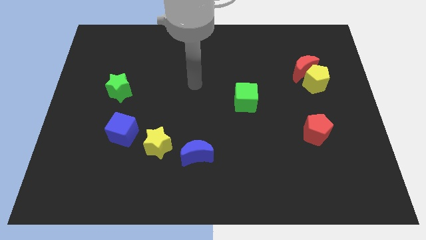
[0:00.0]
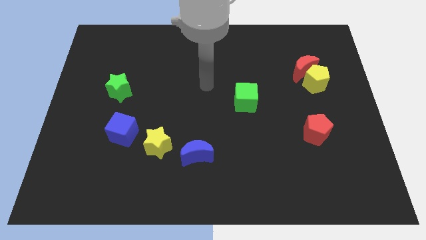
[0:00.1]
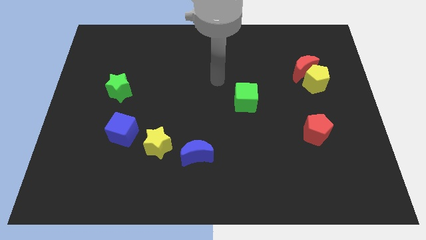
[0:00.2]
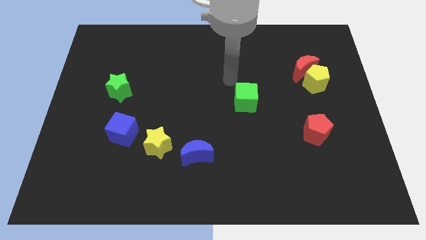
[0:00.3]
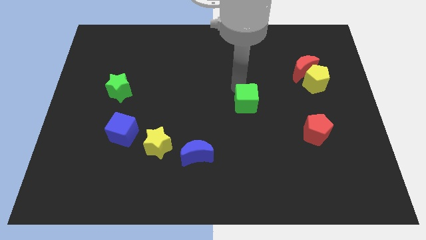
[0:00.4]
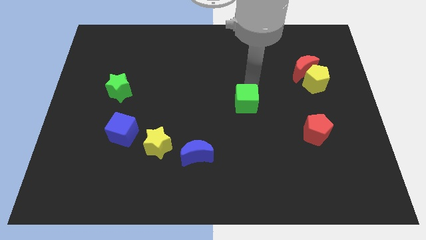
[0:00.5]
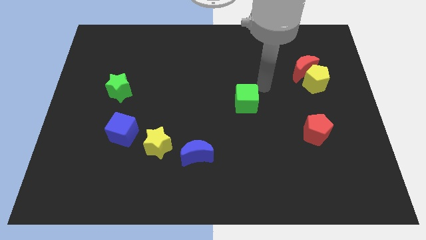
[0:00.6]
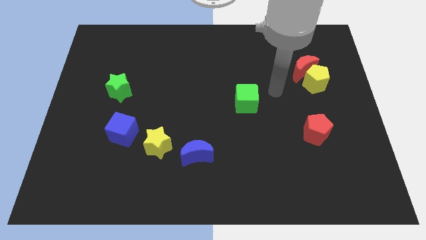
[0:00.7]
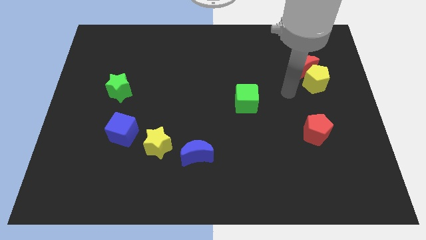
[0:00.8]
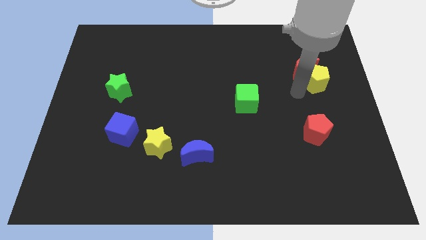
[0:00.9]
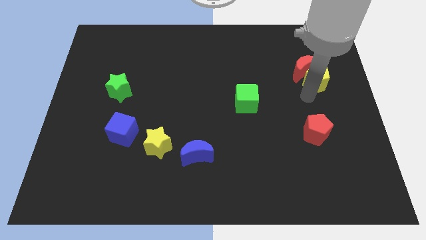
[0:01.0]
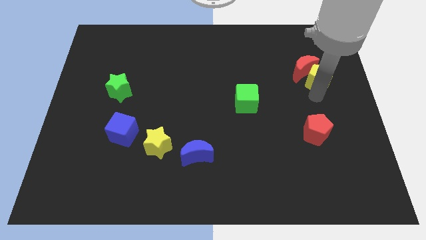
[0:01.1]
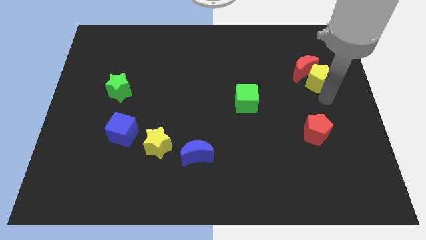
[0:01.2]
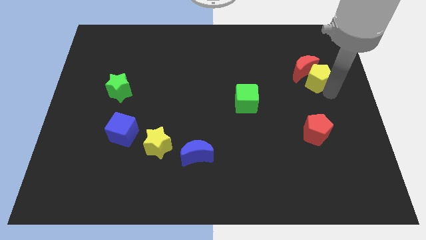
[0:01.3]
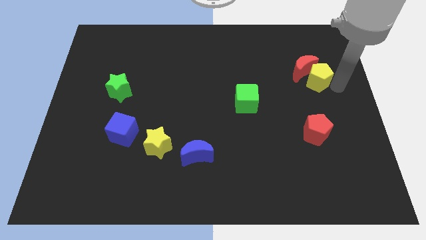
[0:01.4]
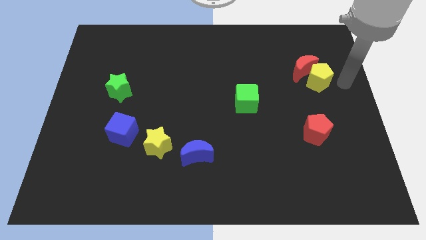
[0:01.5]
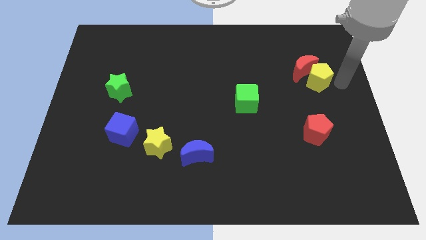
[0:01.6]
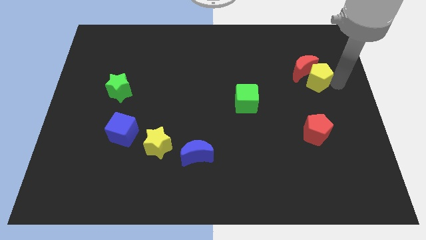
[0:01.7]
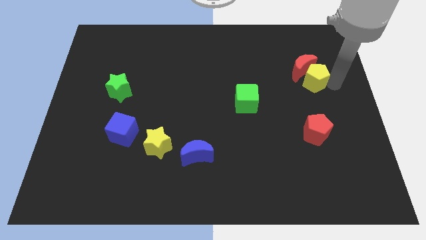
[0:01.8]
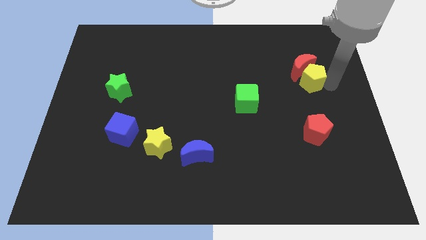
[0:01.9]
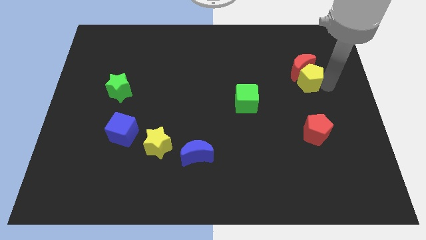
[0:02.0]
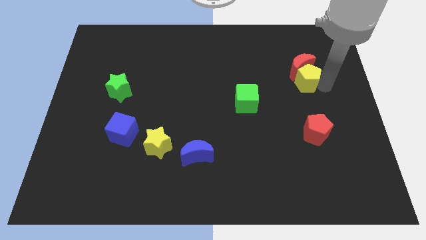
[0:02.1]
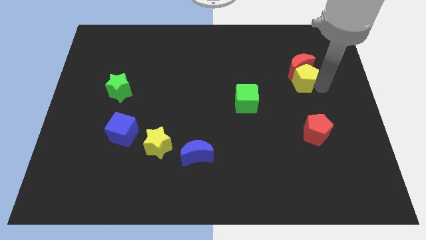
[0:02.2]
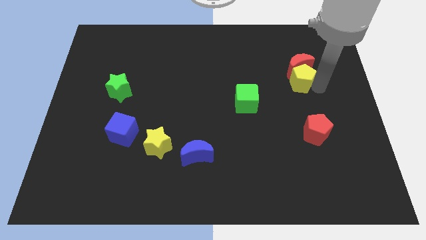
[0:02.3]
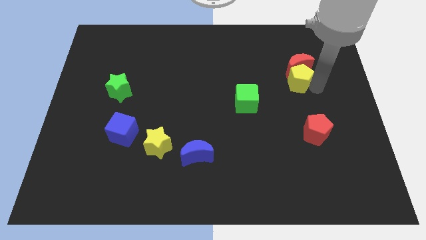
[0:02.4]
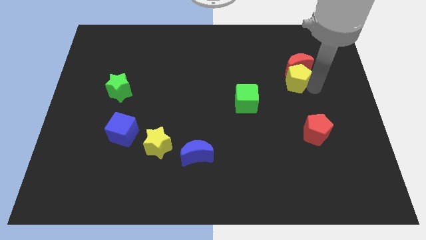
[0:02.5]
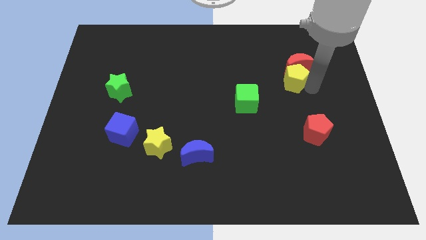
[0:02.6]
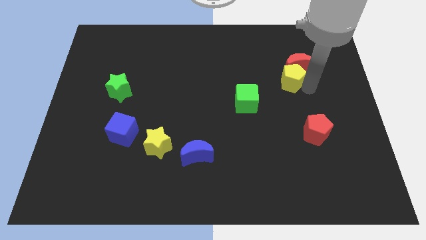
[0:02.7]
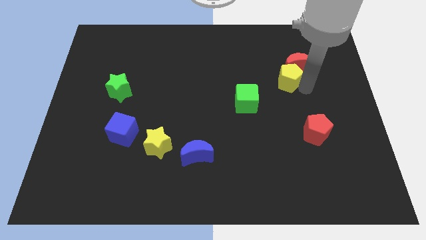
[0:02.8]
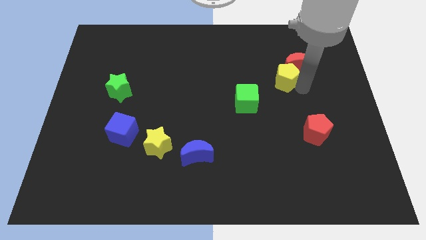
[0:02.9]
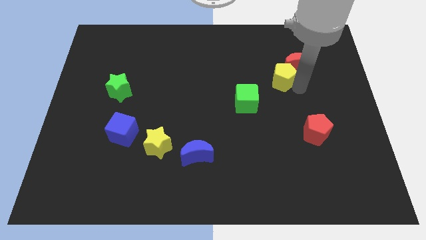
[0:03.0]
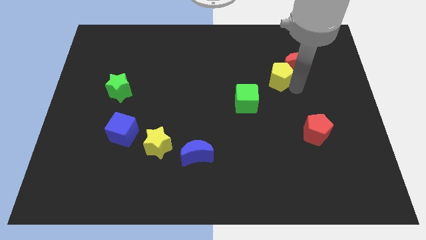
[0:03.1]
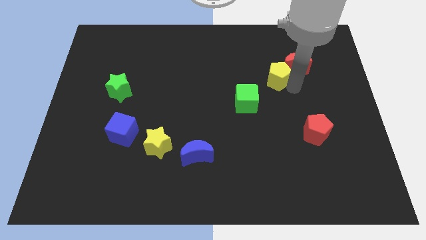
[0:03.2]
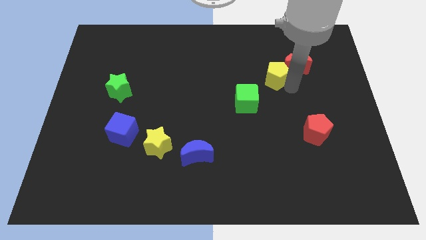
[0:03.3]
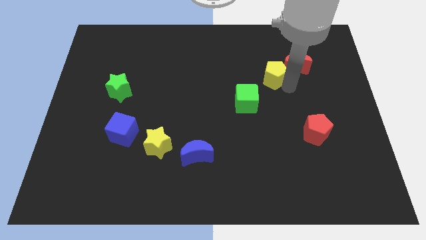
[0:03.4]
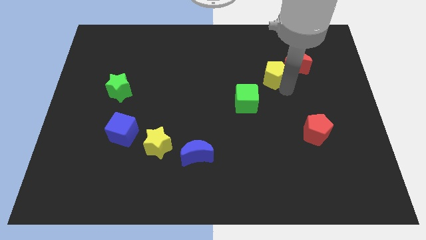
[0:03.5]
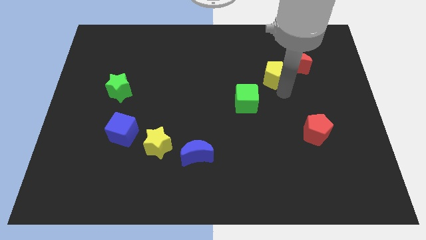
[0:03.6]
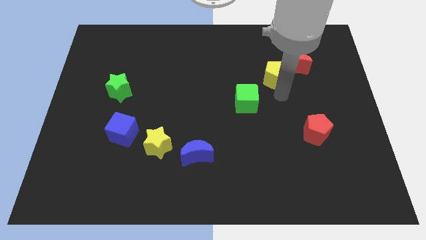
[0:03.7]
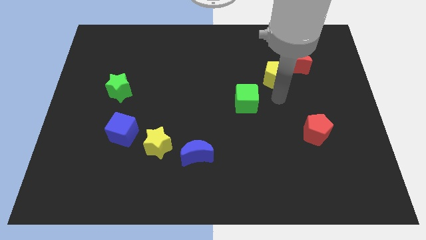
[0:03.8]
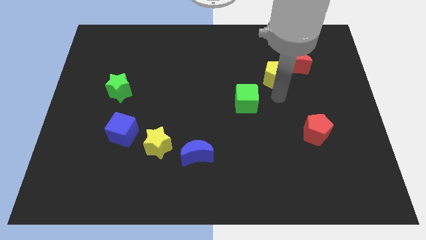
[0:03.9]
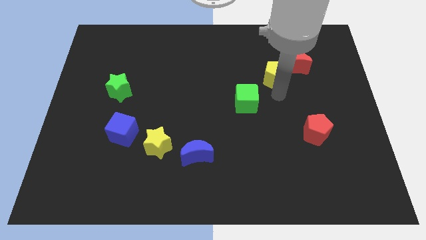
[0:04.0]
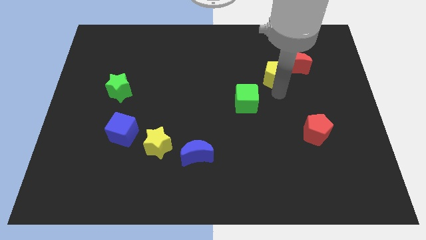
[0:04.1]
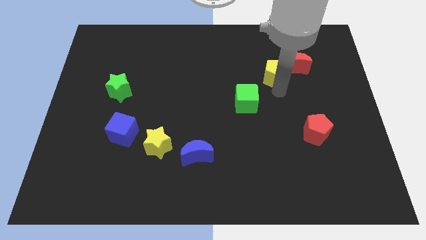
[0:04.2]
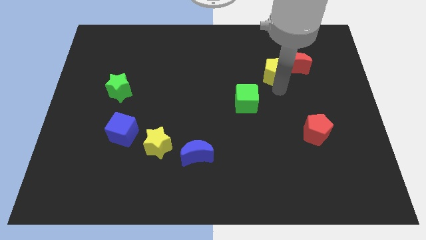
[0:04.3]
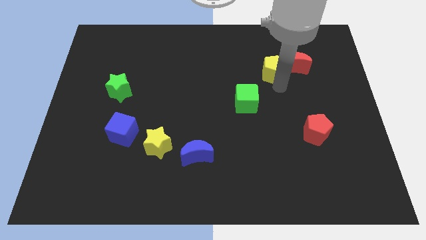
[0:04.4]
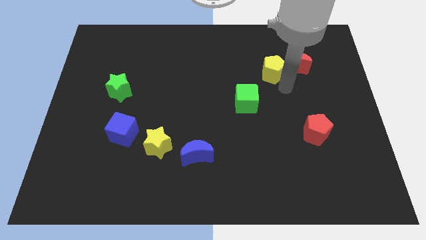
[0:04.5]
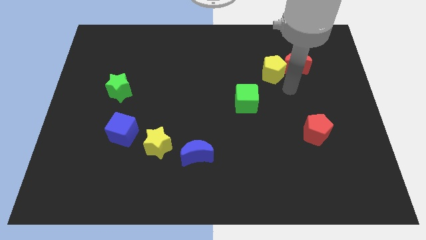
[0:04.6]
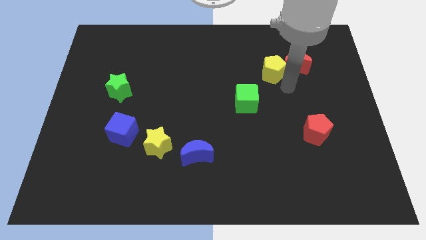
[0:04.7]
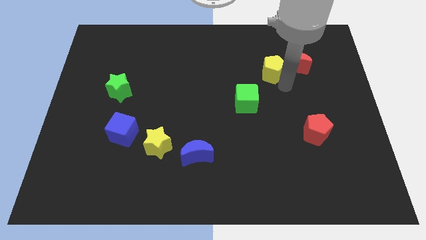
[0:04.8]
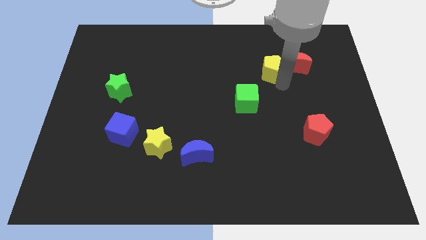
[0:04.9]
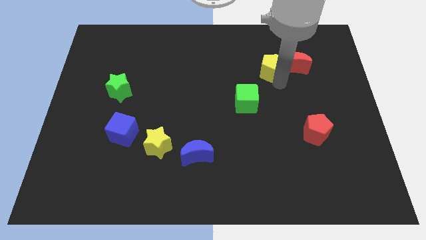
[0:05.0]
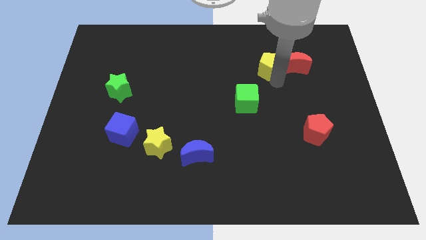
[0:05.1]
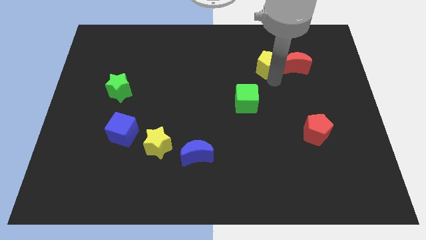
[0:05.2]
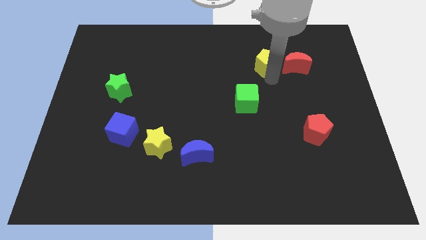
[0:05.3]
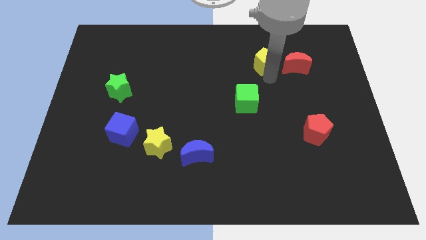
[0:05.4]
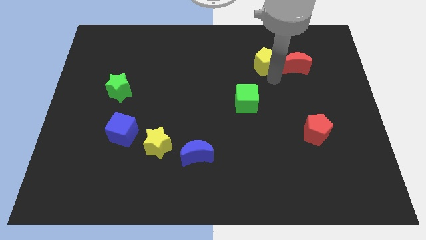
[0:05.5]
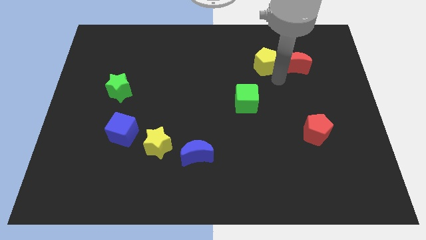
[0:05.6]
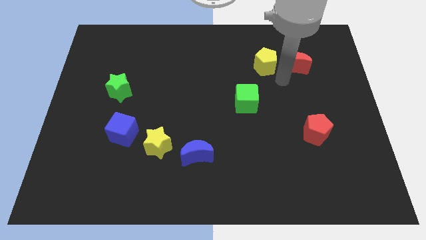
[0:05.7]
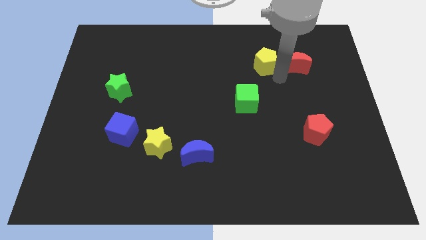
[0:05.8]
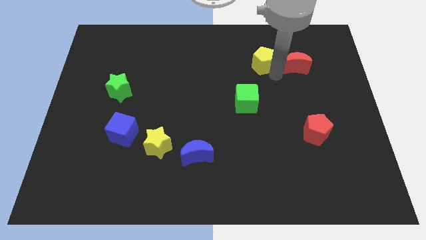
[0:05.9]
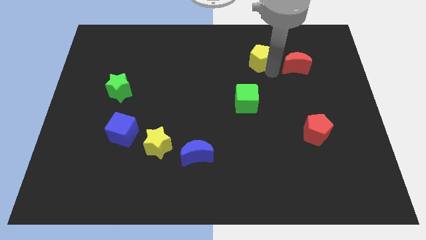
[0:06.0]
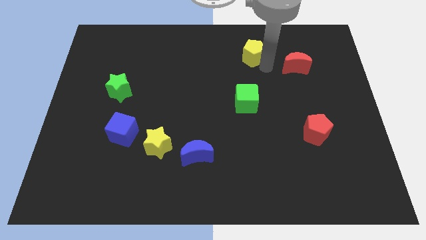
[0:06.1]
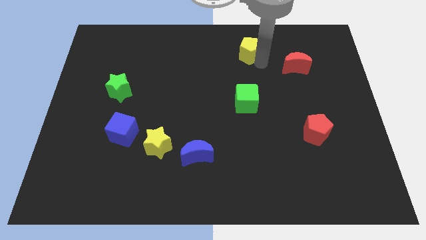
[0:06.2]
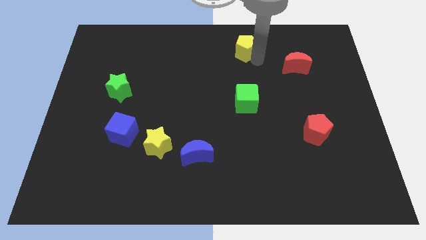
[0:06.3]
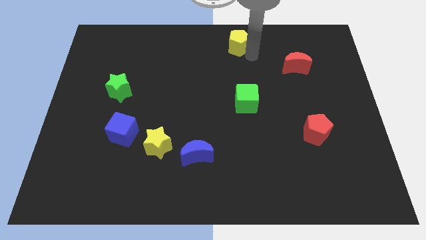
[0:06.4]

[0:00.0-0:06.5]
move the yellow pentagon to the top

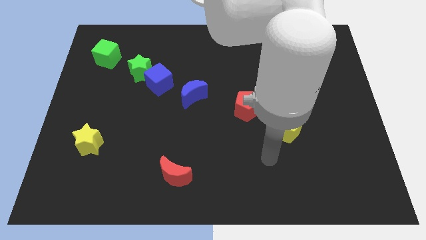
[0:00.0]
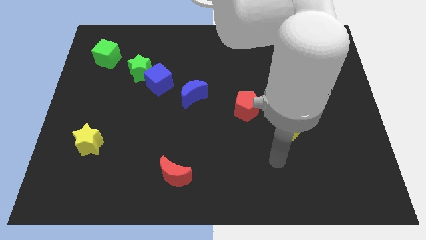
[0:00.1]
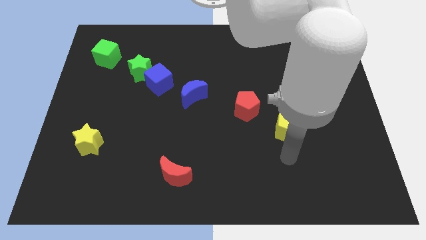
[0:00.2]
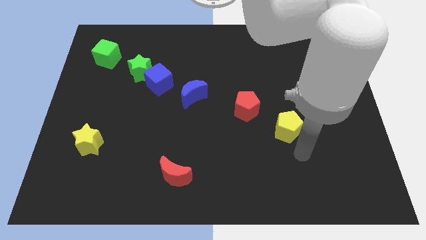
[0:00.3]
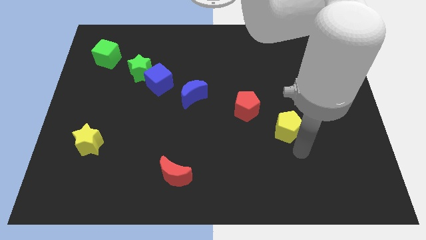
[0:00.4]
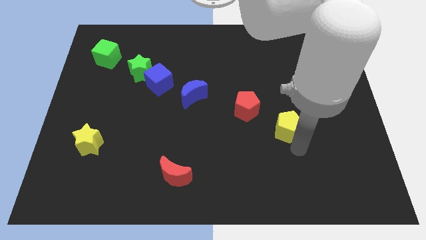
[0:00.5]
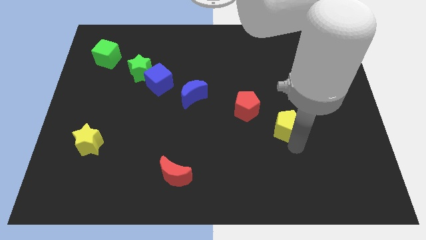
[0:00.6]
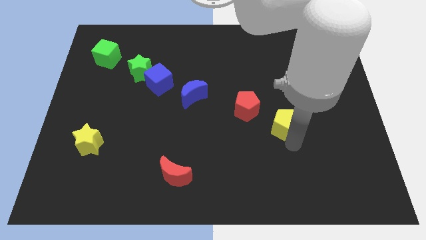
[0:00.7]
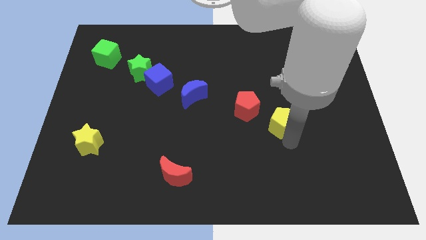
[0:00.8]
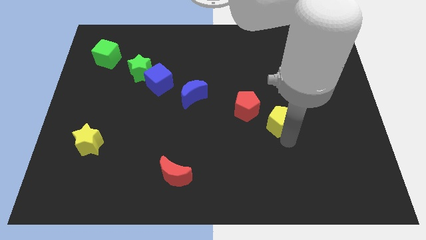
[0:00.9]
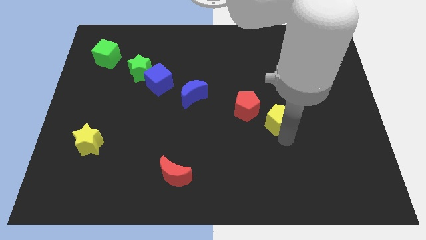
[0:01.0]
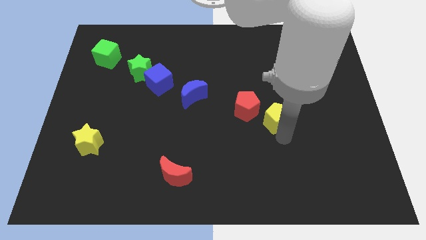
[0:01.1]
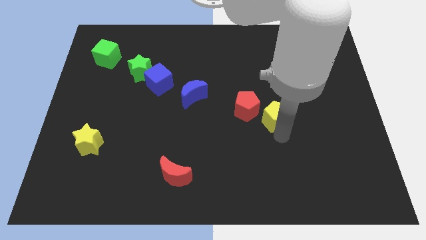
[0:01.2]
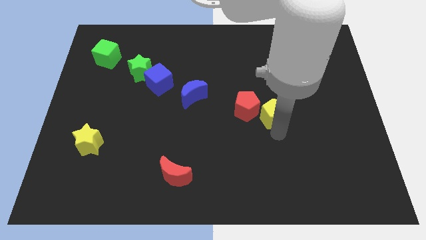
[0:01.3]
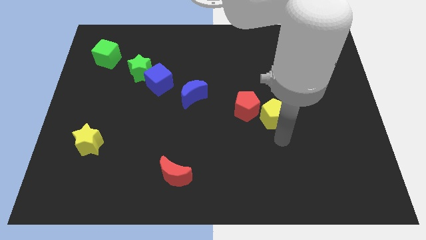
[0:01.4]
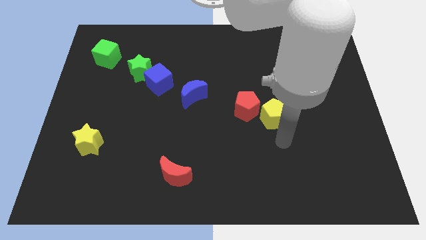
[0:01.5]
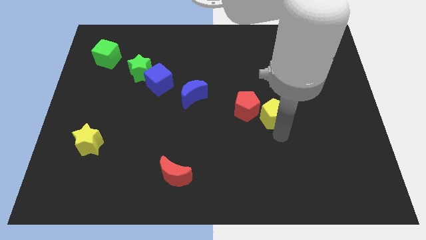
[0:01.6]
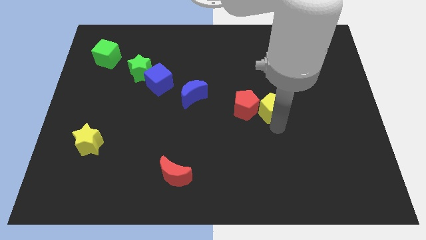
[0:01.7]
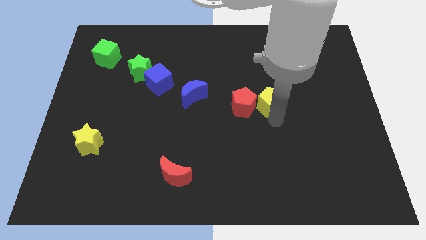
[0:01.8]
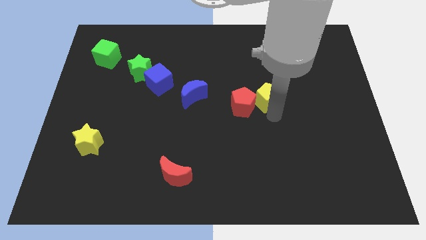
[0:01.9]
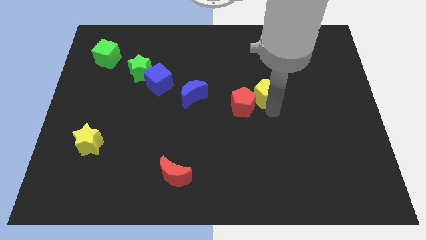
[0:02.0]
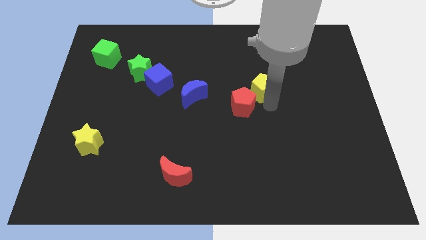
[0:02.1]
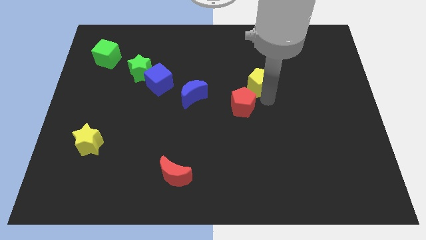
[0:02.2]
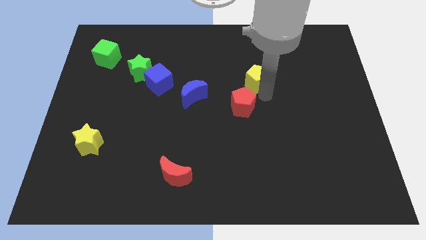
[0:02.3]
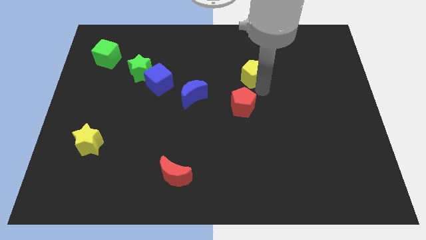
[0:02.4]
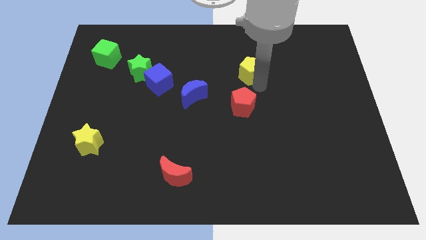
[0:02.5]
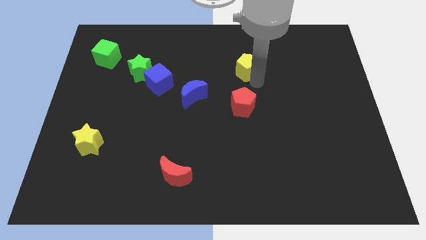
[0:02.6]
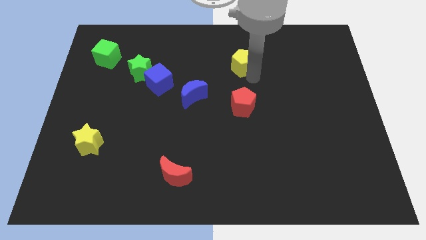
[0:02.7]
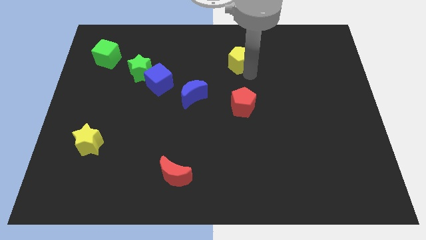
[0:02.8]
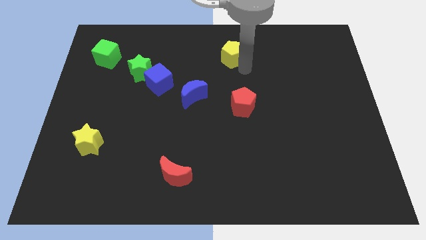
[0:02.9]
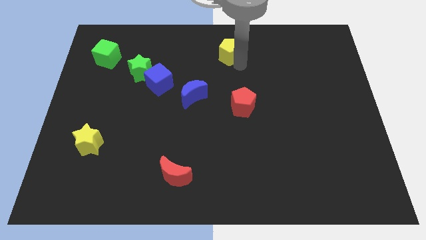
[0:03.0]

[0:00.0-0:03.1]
move the yellow pentagon to the towards your base
